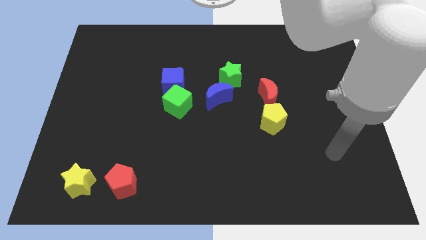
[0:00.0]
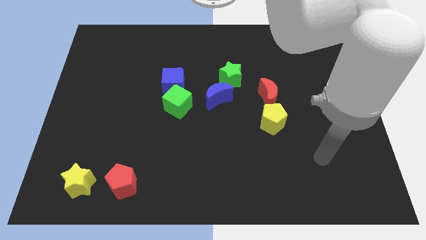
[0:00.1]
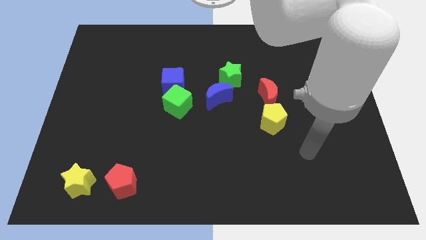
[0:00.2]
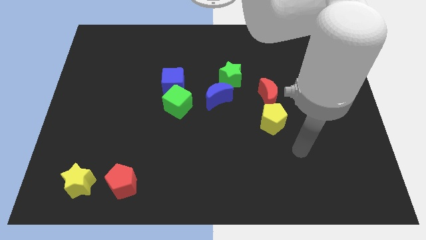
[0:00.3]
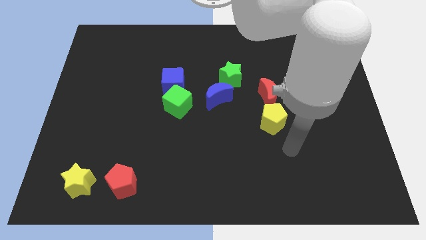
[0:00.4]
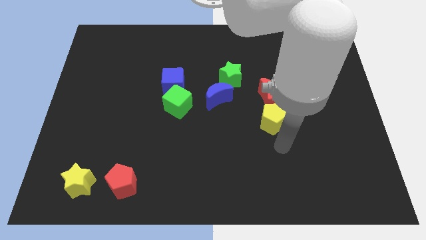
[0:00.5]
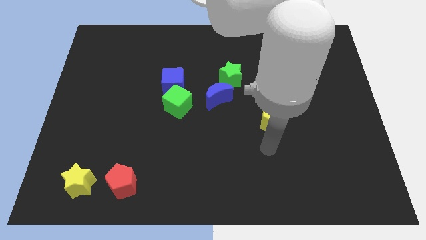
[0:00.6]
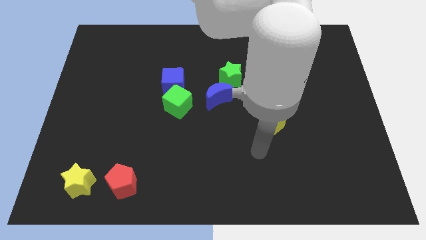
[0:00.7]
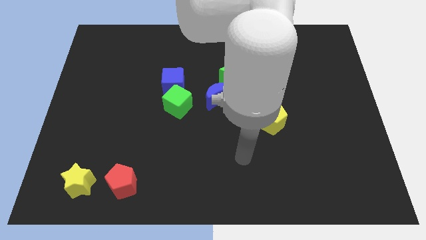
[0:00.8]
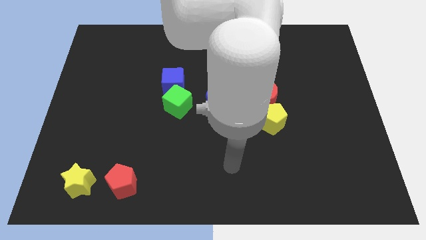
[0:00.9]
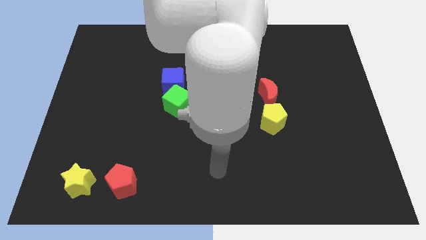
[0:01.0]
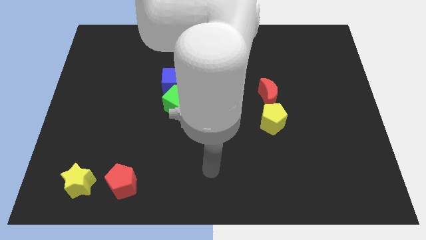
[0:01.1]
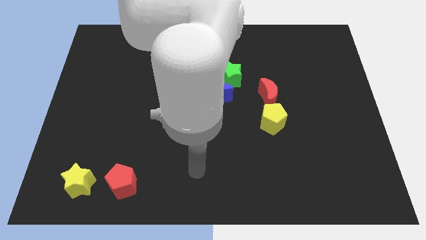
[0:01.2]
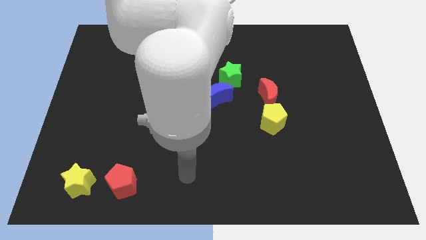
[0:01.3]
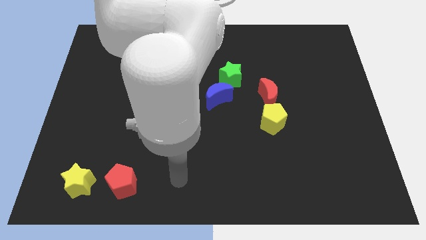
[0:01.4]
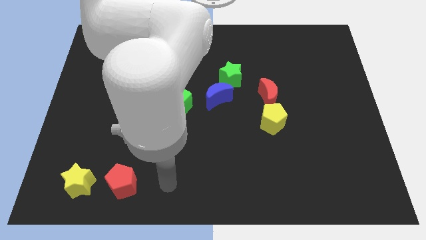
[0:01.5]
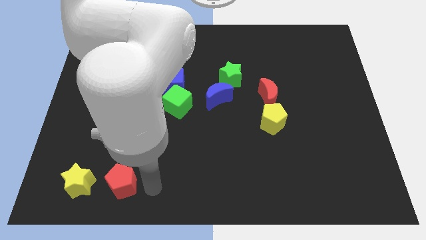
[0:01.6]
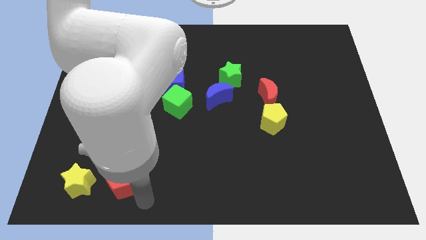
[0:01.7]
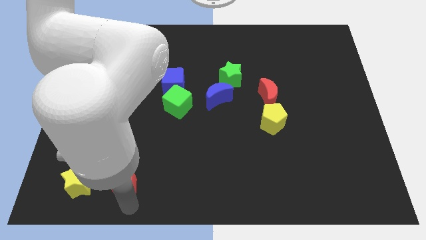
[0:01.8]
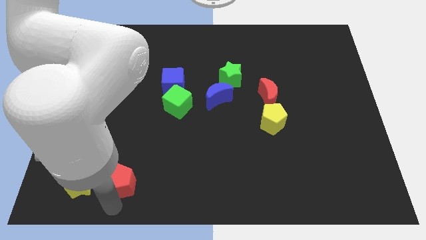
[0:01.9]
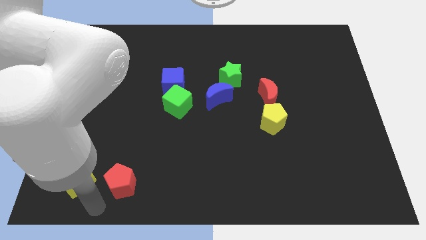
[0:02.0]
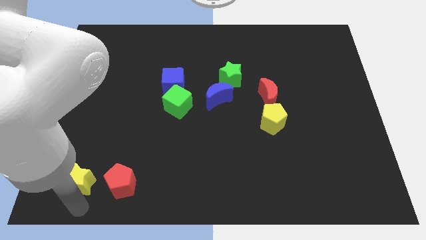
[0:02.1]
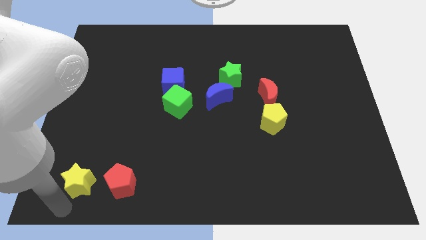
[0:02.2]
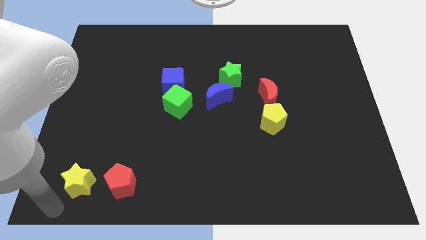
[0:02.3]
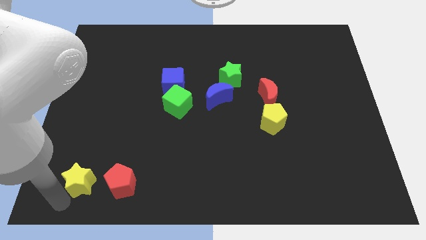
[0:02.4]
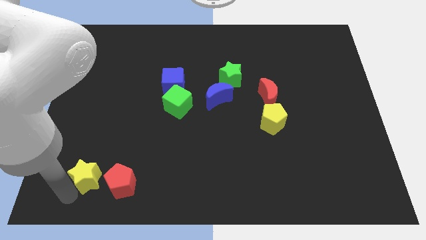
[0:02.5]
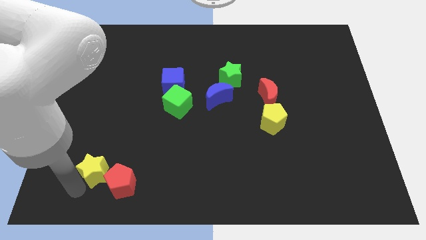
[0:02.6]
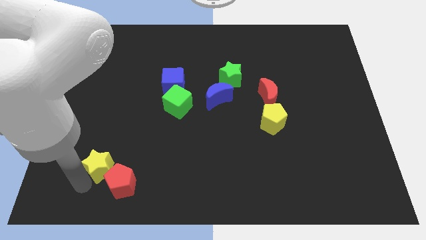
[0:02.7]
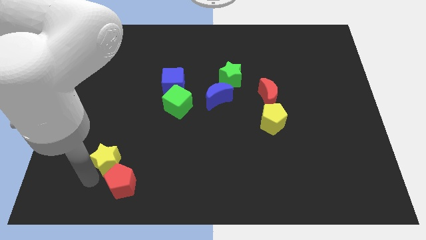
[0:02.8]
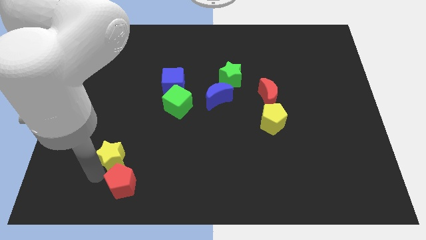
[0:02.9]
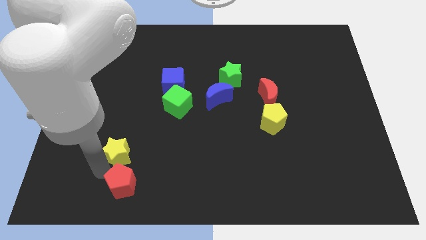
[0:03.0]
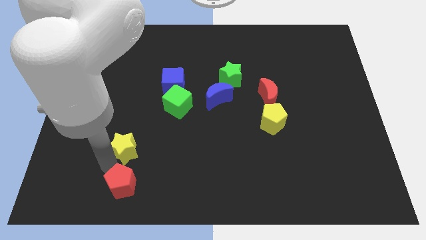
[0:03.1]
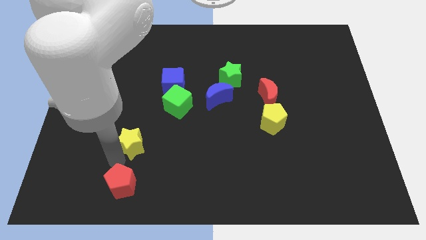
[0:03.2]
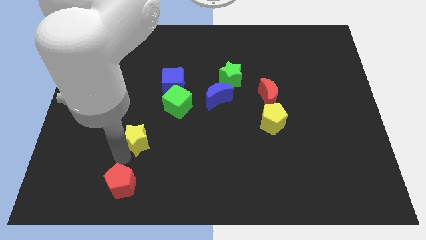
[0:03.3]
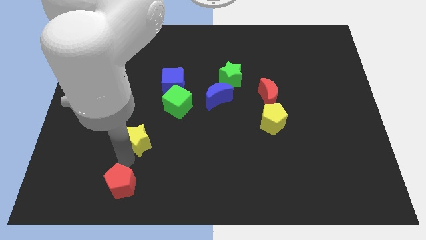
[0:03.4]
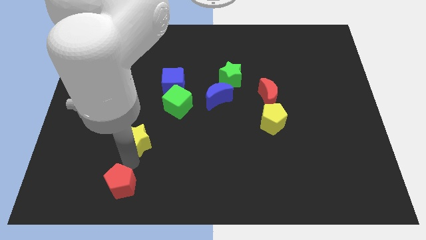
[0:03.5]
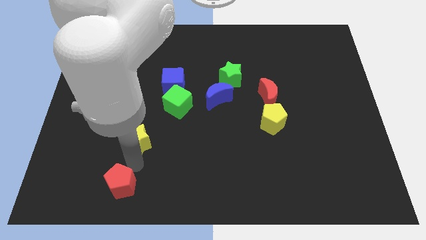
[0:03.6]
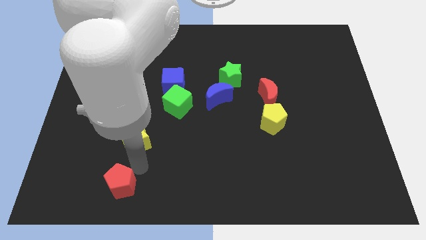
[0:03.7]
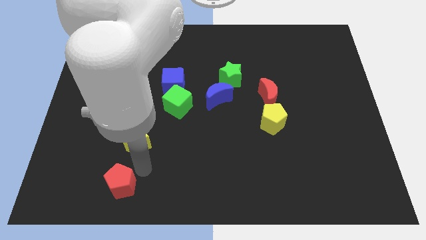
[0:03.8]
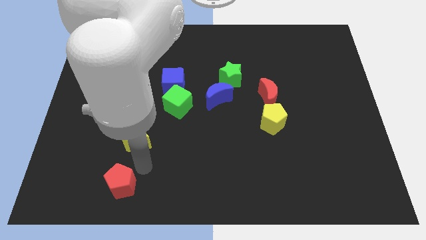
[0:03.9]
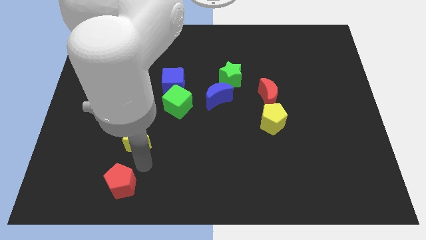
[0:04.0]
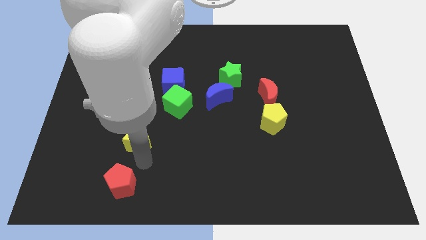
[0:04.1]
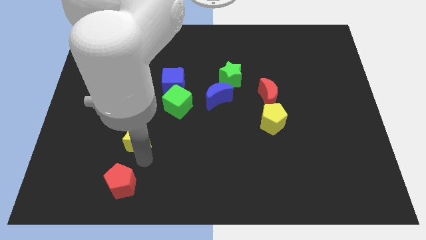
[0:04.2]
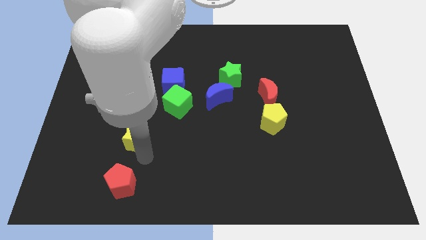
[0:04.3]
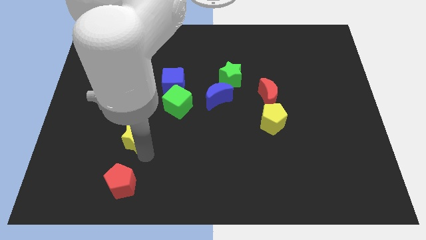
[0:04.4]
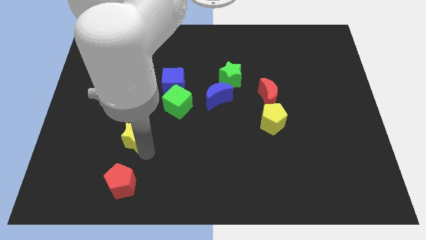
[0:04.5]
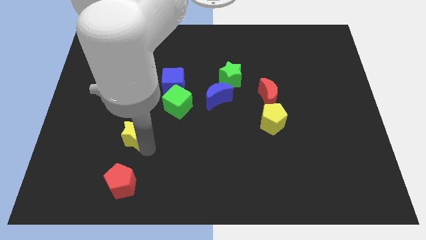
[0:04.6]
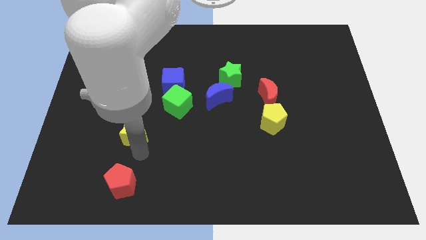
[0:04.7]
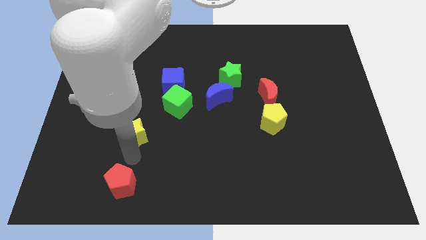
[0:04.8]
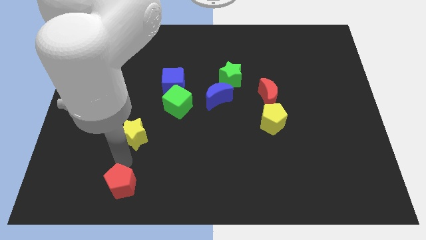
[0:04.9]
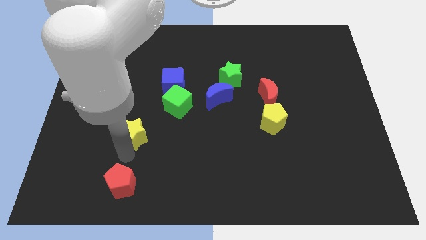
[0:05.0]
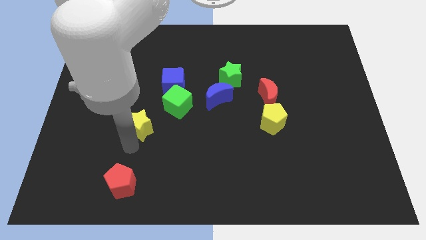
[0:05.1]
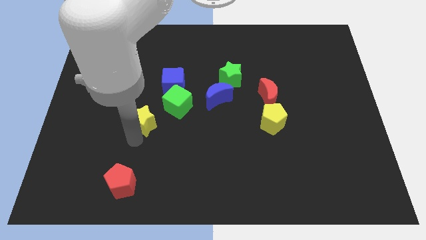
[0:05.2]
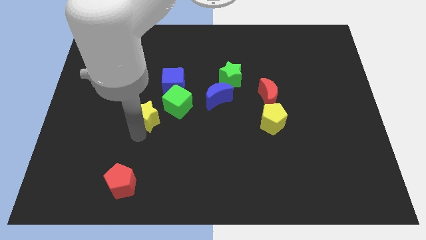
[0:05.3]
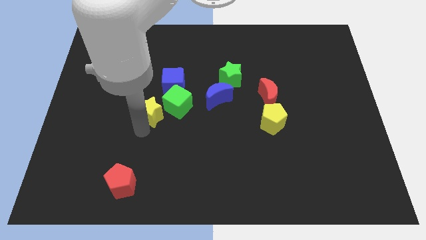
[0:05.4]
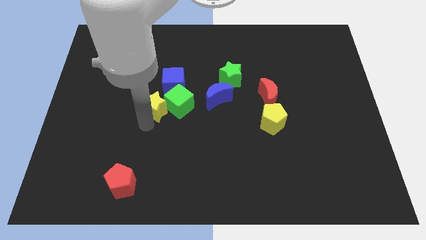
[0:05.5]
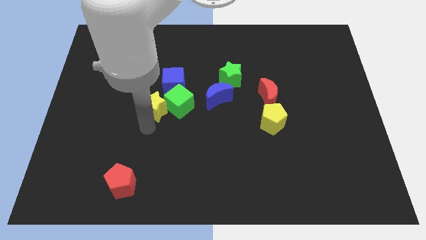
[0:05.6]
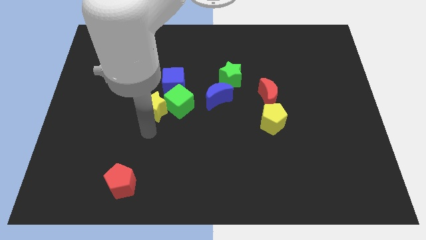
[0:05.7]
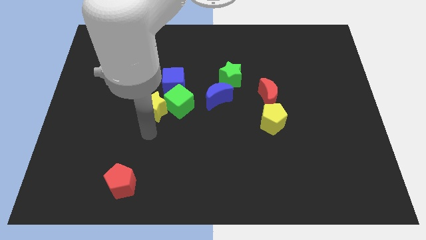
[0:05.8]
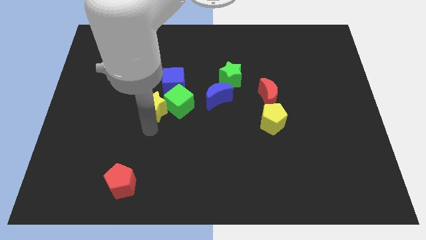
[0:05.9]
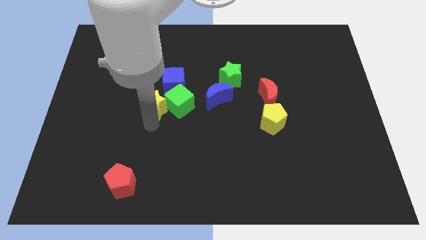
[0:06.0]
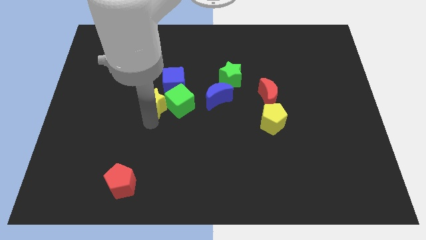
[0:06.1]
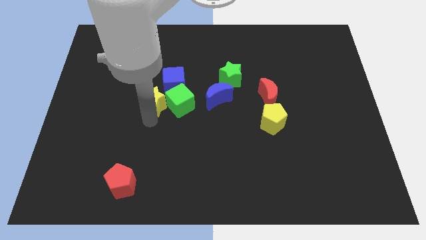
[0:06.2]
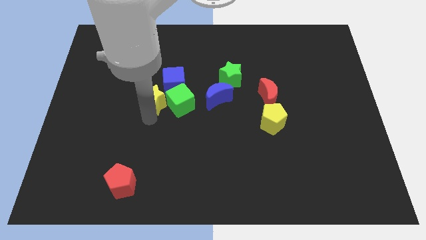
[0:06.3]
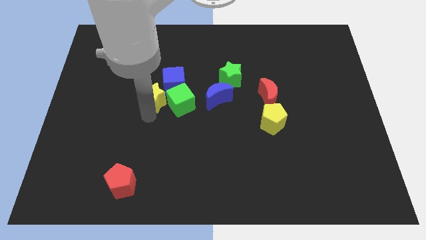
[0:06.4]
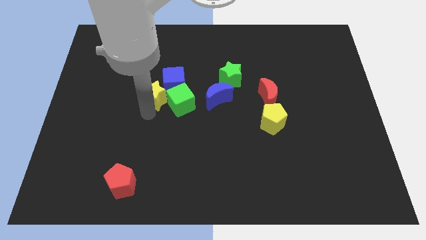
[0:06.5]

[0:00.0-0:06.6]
put the yellow star close to the blue cube

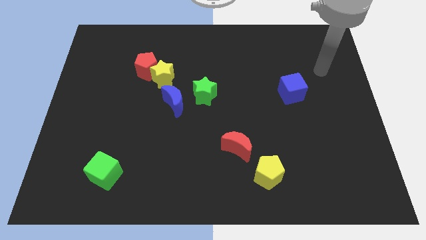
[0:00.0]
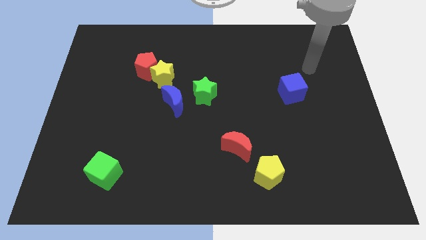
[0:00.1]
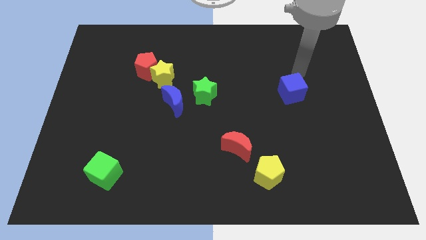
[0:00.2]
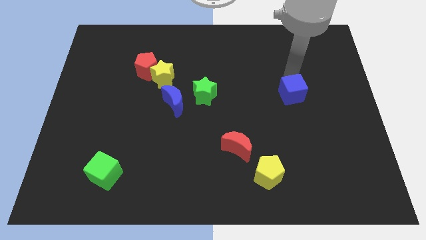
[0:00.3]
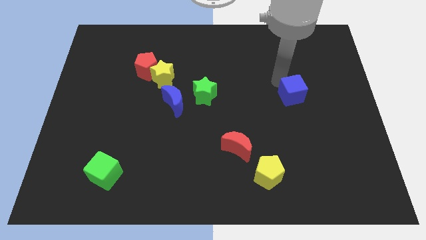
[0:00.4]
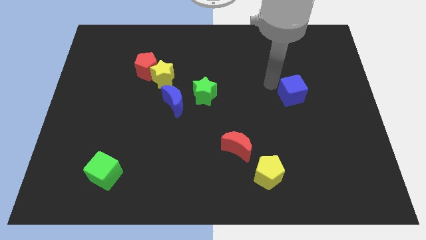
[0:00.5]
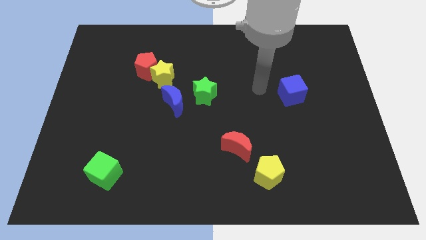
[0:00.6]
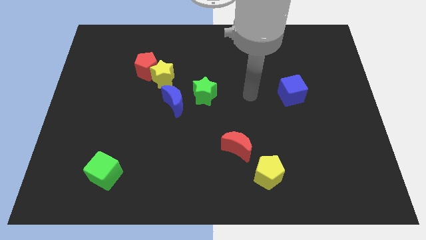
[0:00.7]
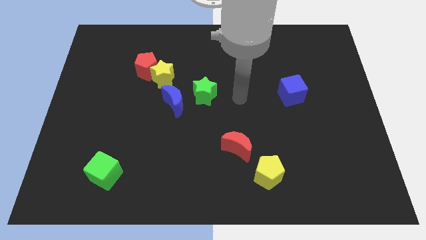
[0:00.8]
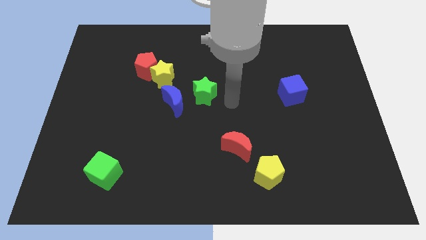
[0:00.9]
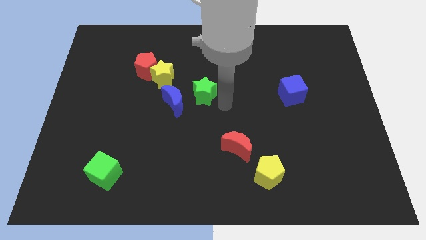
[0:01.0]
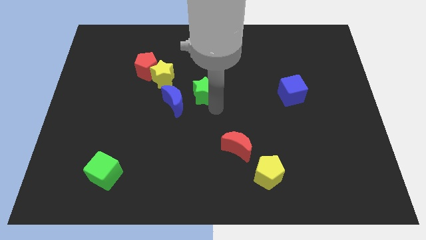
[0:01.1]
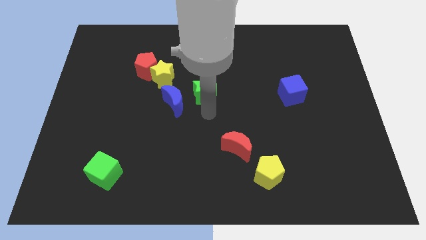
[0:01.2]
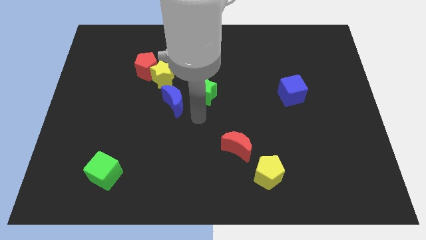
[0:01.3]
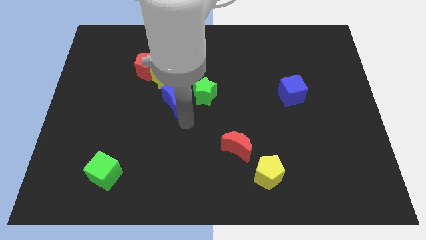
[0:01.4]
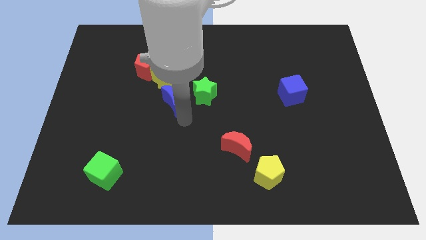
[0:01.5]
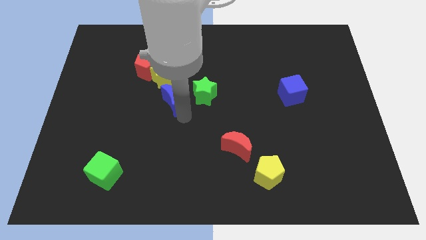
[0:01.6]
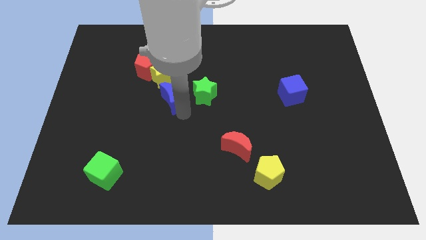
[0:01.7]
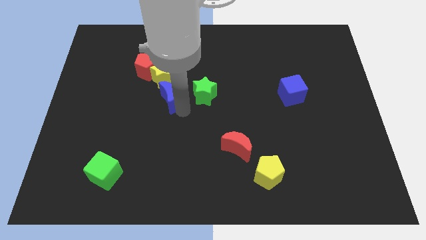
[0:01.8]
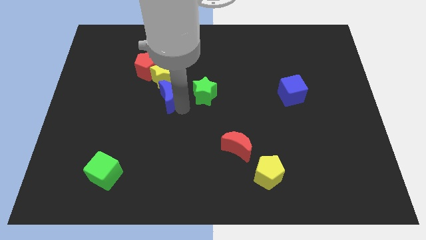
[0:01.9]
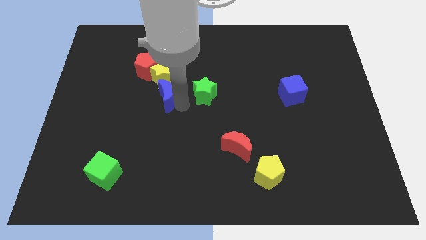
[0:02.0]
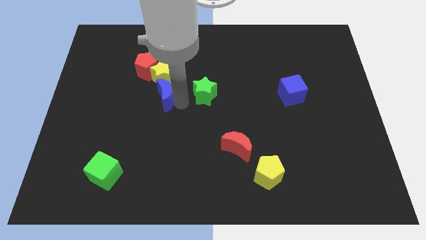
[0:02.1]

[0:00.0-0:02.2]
move the blue moon close to the yellow star
